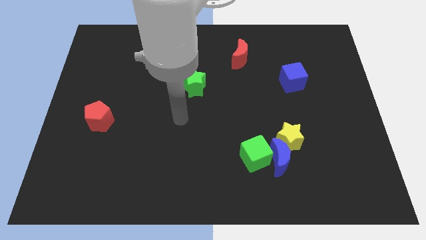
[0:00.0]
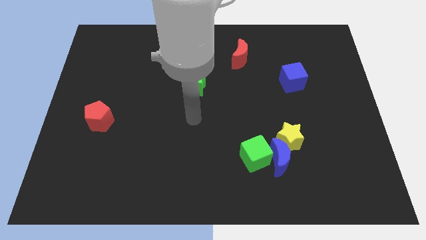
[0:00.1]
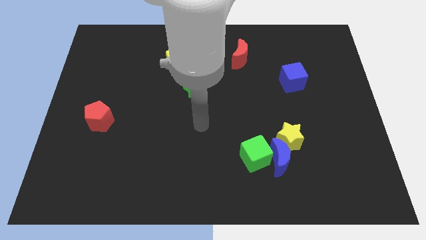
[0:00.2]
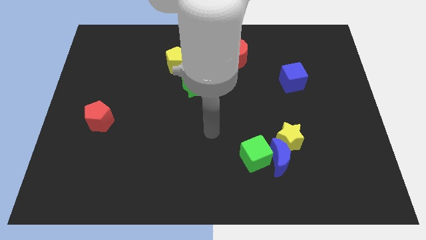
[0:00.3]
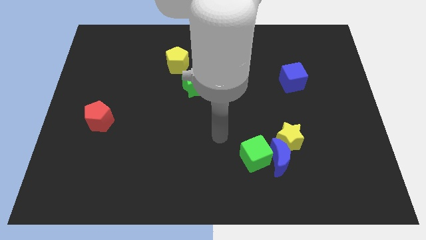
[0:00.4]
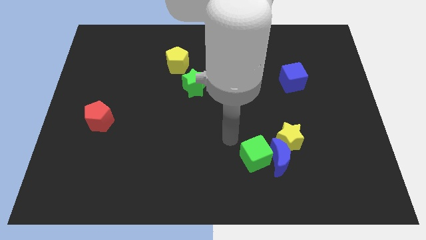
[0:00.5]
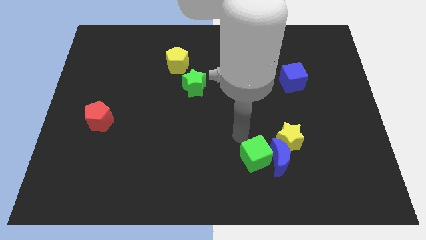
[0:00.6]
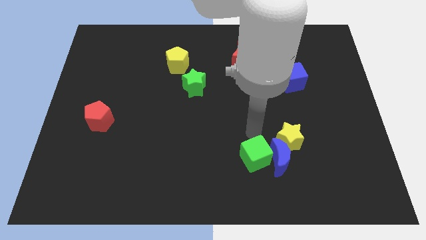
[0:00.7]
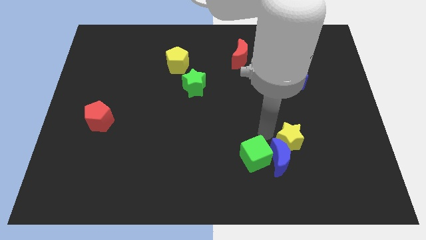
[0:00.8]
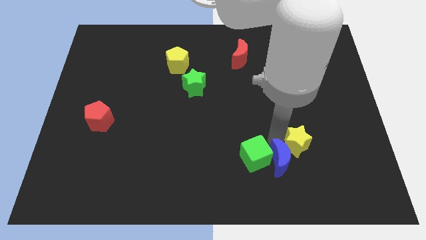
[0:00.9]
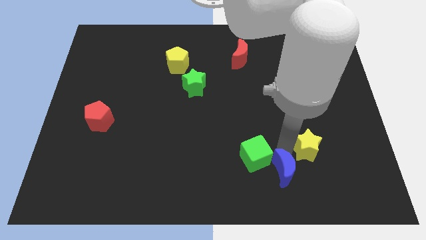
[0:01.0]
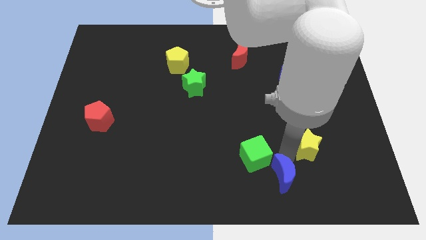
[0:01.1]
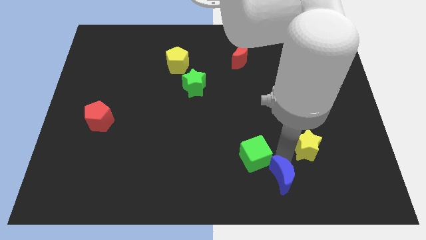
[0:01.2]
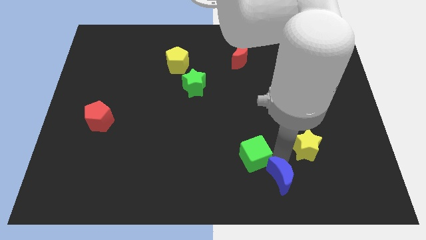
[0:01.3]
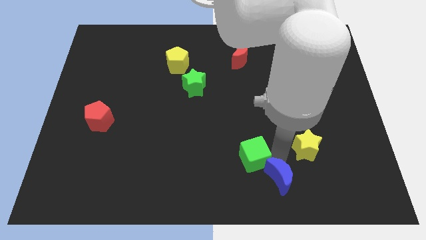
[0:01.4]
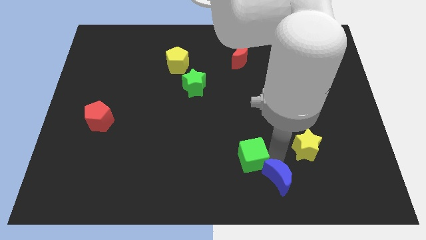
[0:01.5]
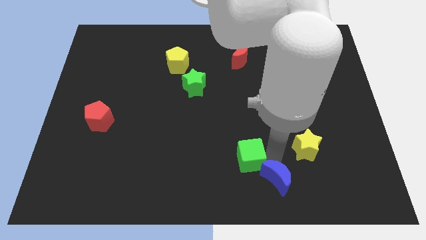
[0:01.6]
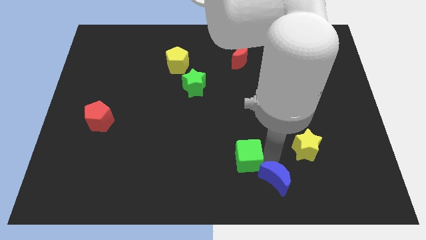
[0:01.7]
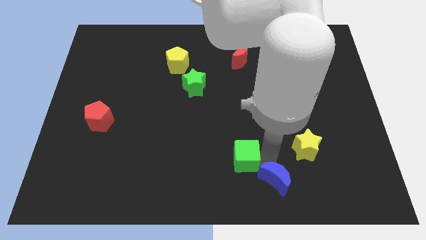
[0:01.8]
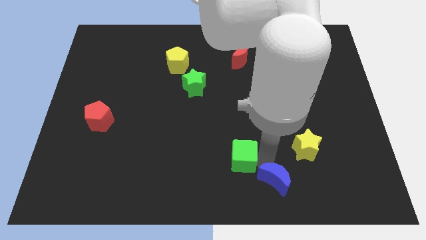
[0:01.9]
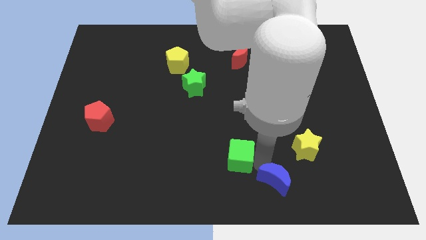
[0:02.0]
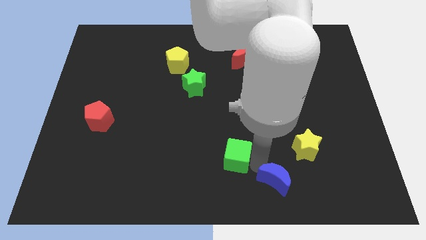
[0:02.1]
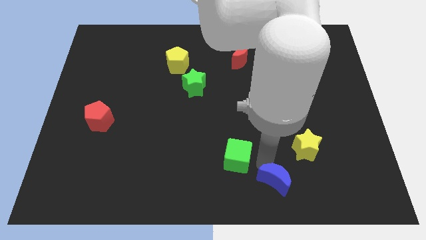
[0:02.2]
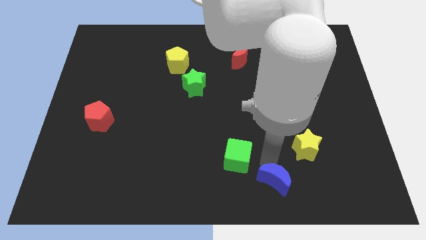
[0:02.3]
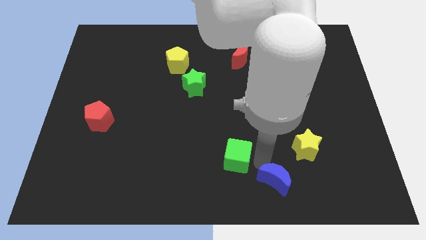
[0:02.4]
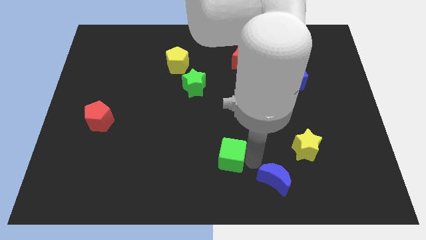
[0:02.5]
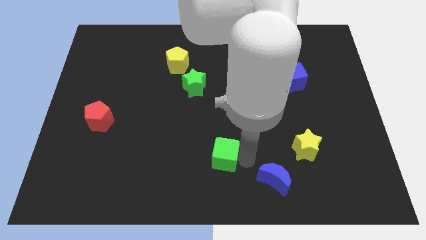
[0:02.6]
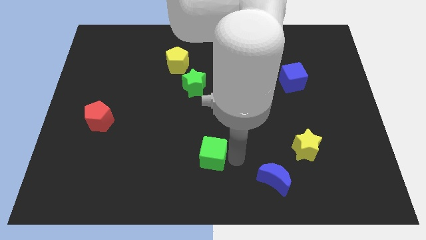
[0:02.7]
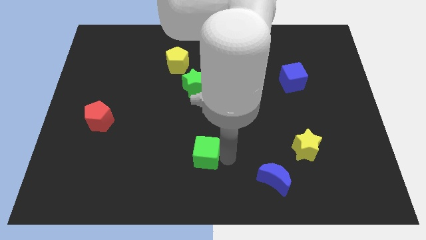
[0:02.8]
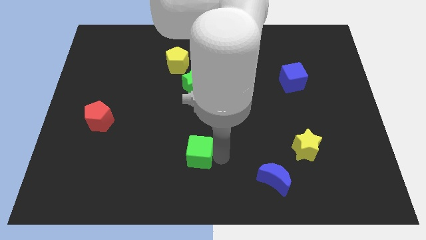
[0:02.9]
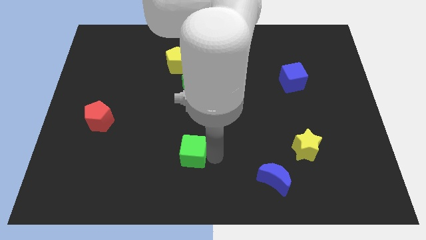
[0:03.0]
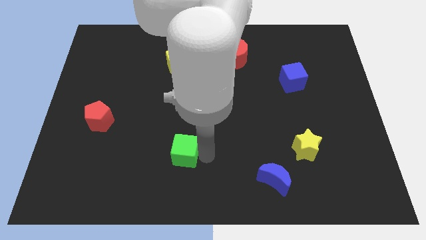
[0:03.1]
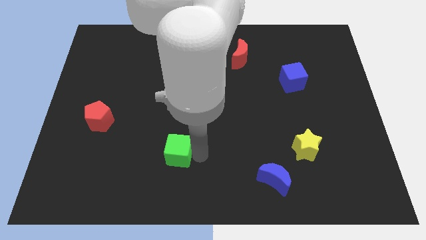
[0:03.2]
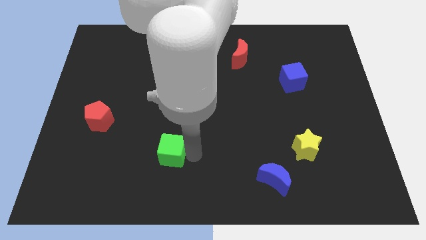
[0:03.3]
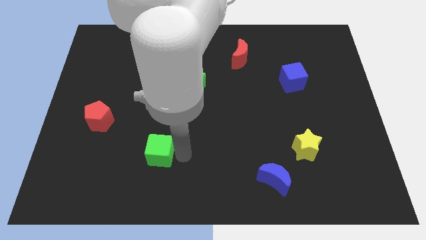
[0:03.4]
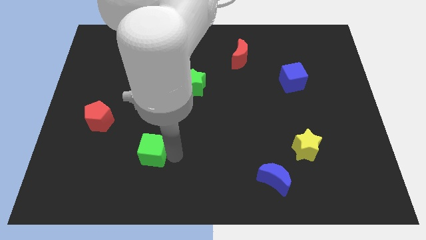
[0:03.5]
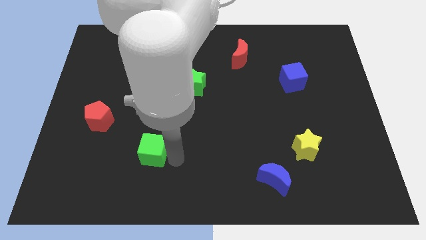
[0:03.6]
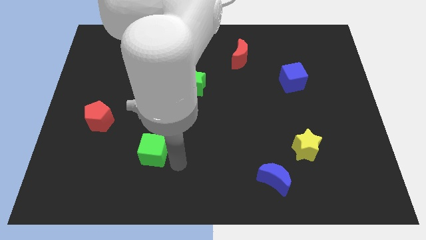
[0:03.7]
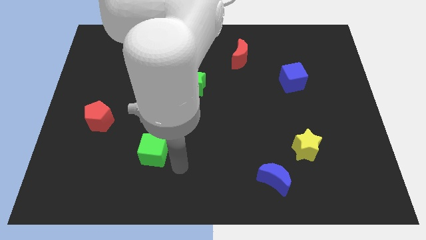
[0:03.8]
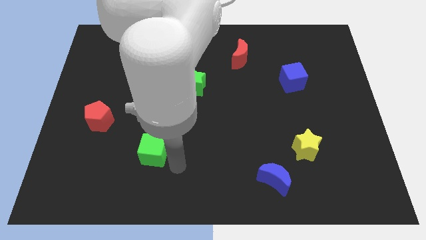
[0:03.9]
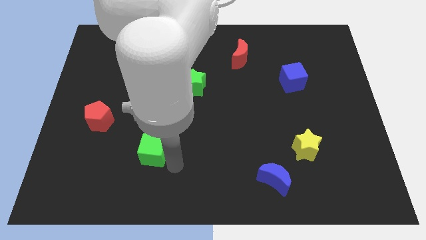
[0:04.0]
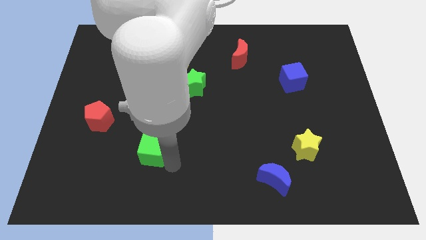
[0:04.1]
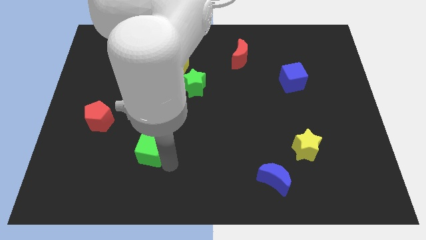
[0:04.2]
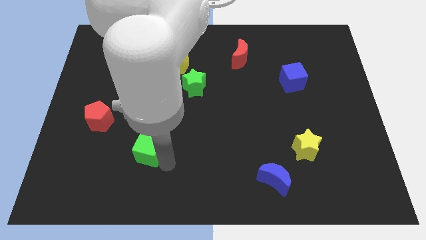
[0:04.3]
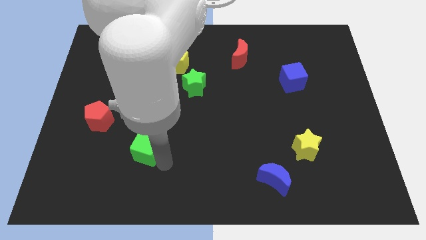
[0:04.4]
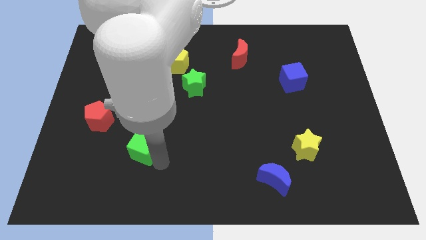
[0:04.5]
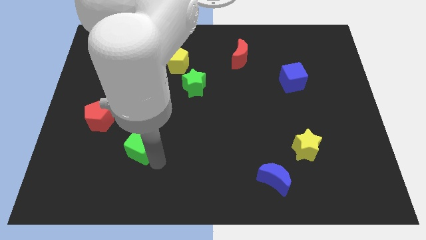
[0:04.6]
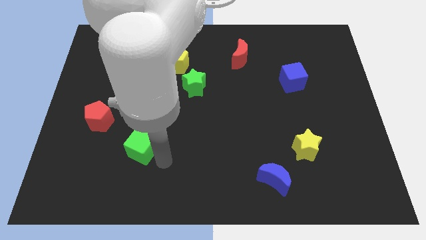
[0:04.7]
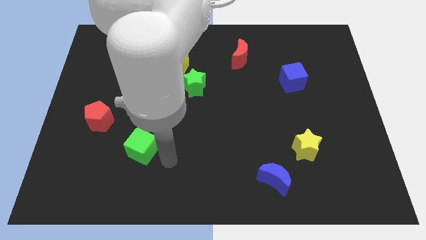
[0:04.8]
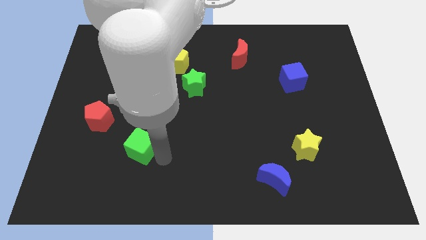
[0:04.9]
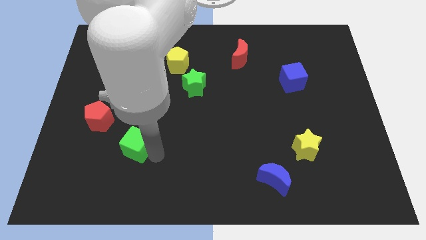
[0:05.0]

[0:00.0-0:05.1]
put the green cube to the bottom right side of the red pentagon

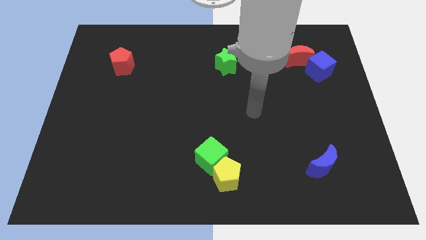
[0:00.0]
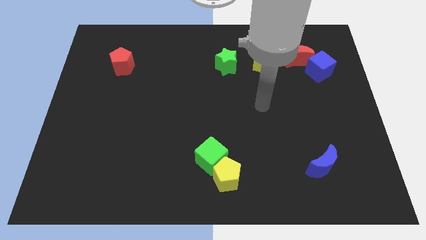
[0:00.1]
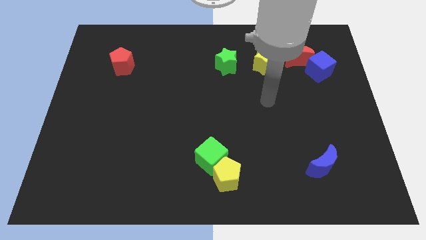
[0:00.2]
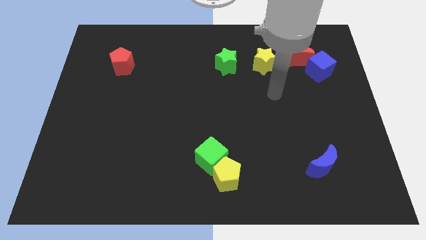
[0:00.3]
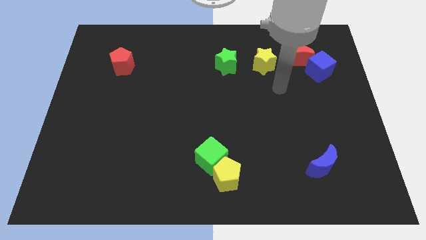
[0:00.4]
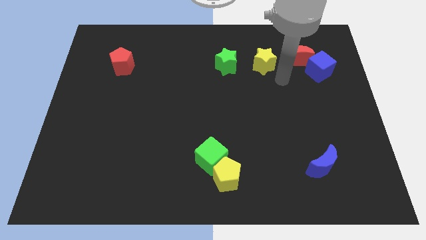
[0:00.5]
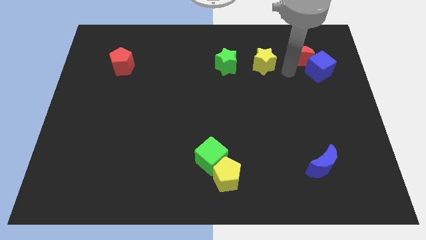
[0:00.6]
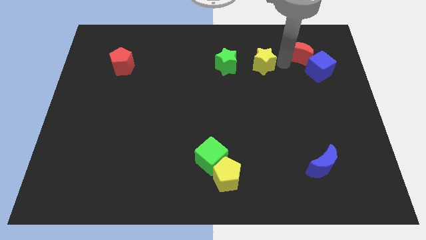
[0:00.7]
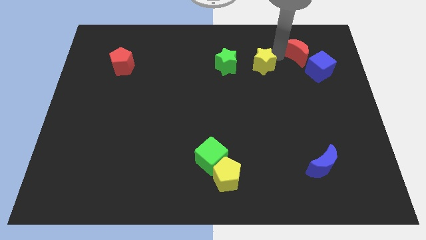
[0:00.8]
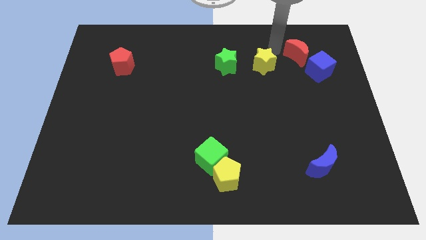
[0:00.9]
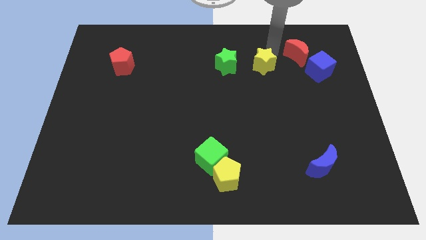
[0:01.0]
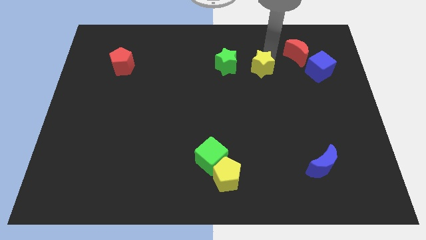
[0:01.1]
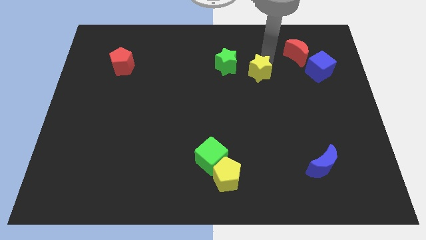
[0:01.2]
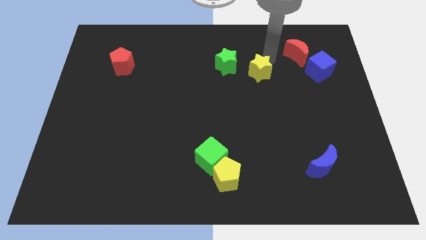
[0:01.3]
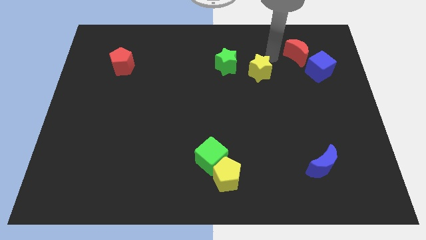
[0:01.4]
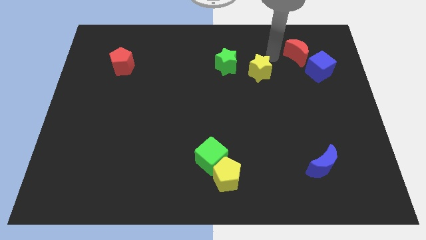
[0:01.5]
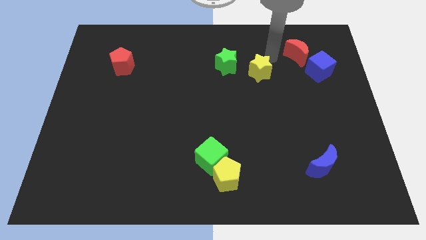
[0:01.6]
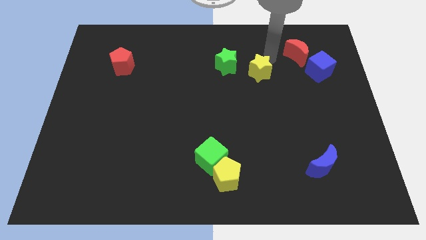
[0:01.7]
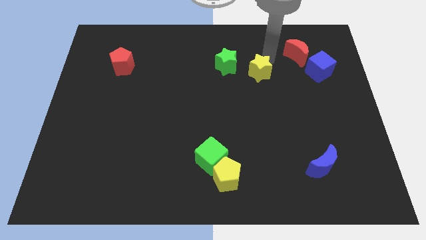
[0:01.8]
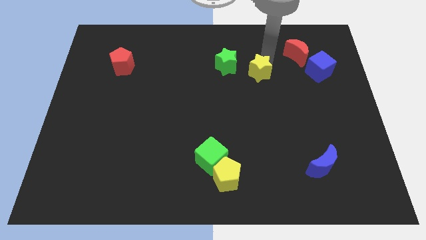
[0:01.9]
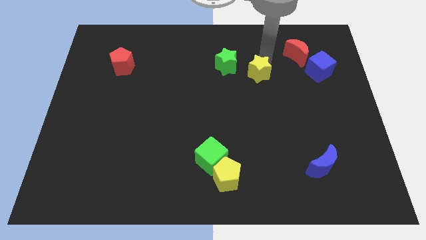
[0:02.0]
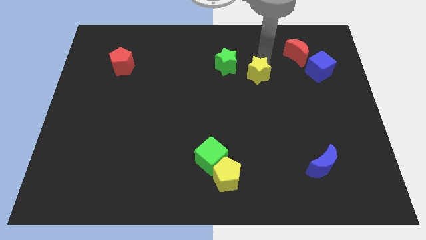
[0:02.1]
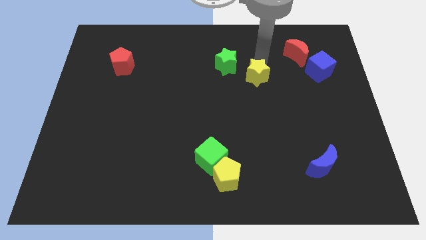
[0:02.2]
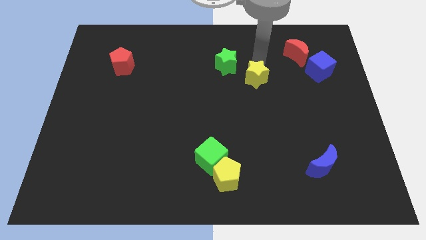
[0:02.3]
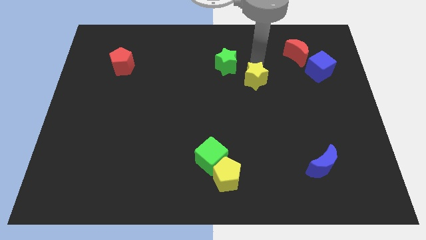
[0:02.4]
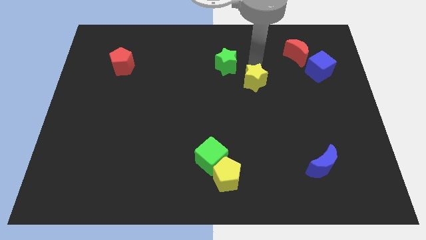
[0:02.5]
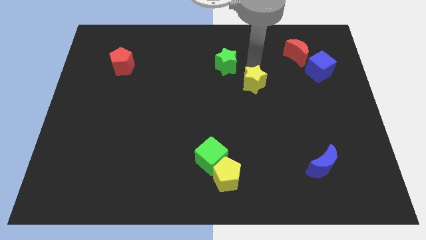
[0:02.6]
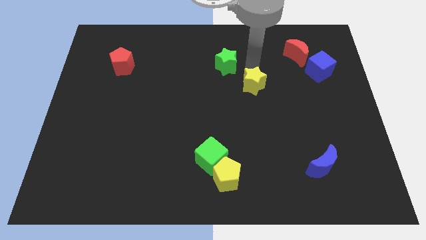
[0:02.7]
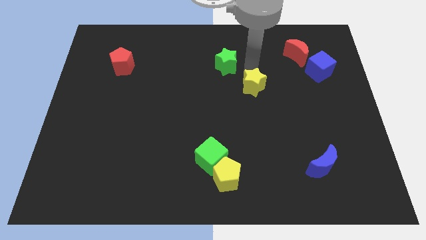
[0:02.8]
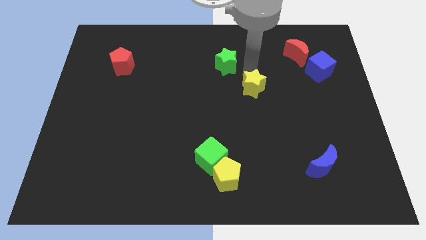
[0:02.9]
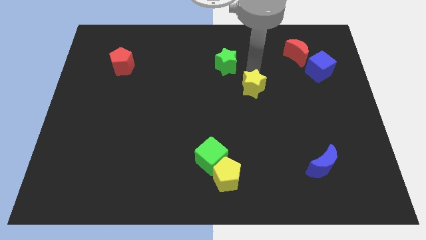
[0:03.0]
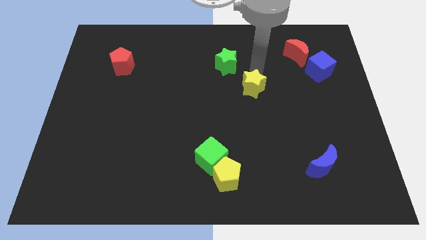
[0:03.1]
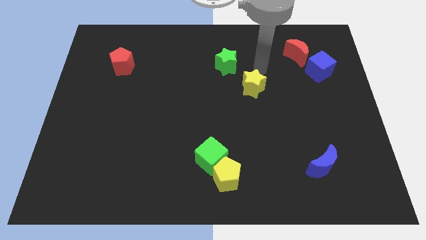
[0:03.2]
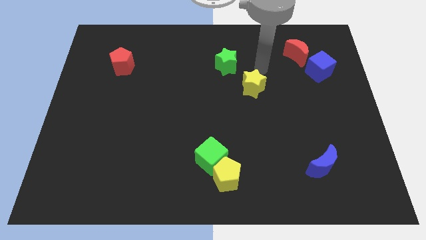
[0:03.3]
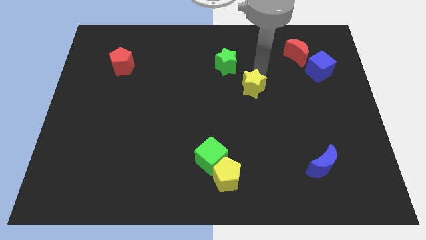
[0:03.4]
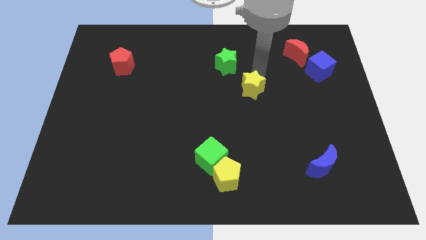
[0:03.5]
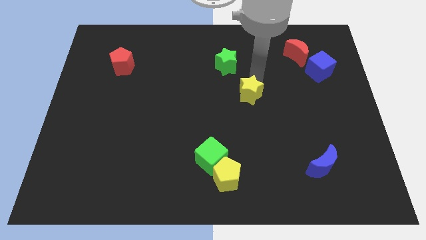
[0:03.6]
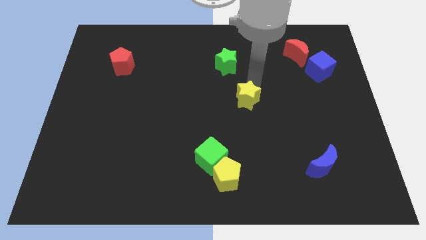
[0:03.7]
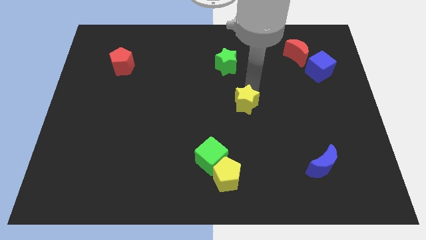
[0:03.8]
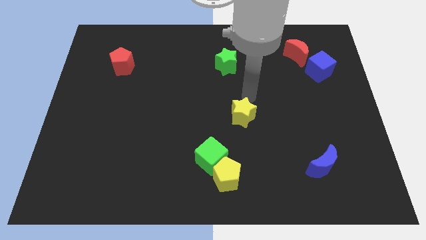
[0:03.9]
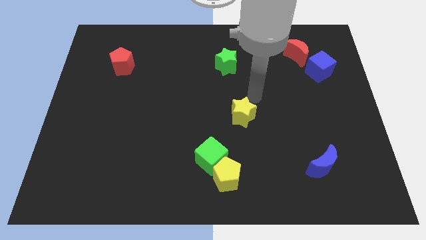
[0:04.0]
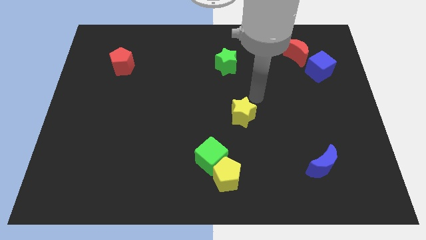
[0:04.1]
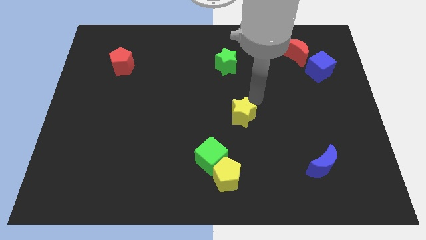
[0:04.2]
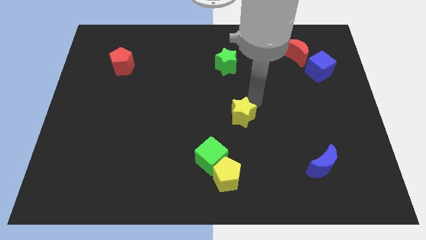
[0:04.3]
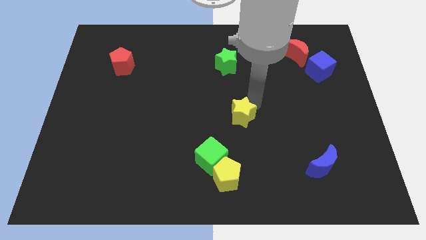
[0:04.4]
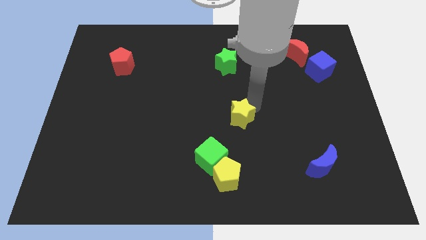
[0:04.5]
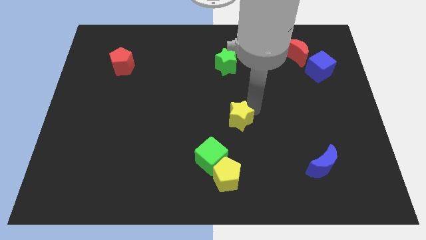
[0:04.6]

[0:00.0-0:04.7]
push the yellow star to the top side of the yellow pentagon
